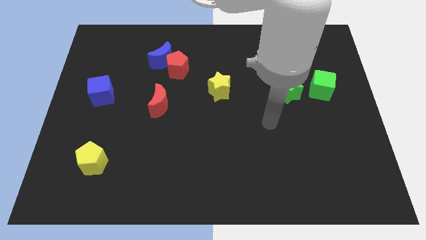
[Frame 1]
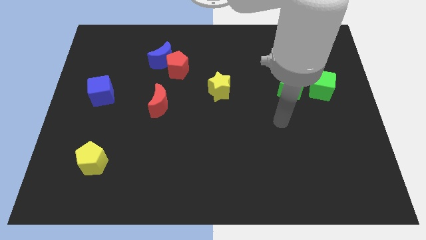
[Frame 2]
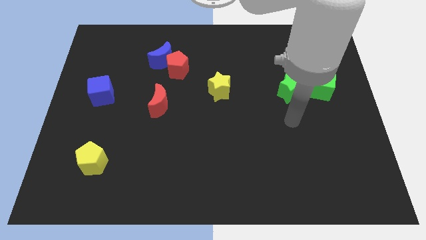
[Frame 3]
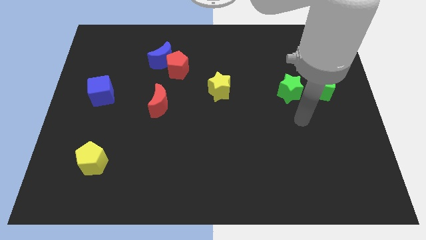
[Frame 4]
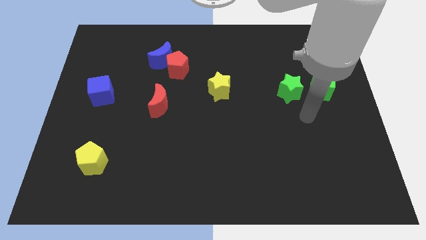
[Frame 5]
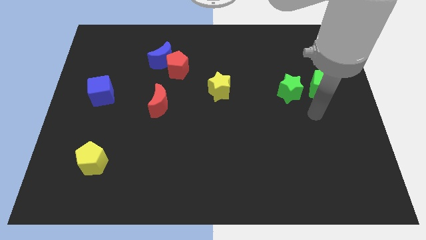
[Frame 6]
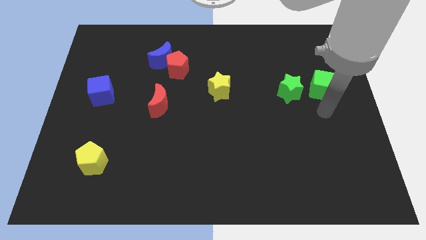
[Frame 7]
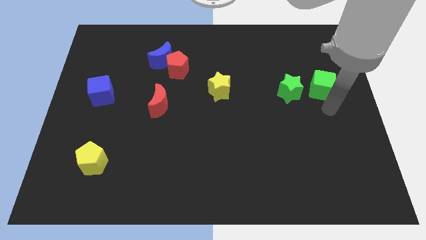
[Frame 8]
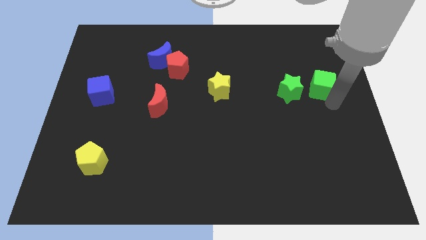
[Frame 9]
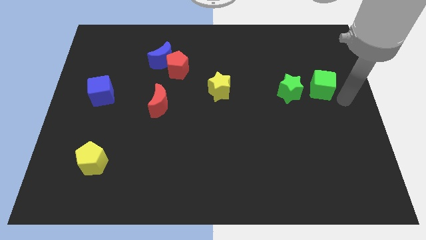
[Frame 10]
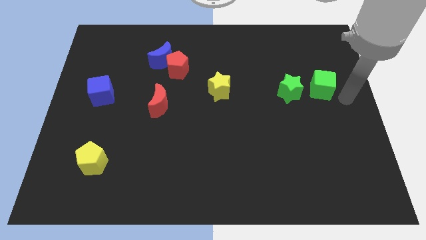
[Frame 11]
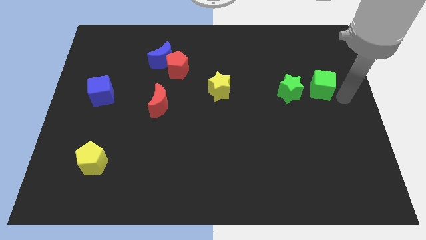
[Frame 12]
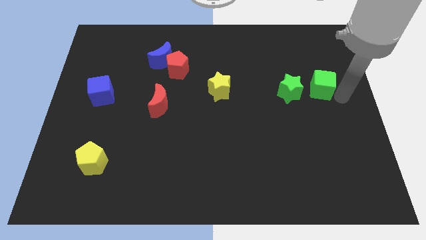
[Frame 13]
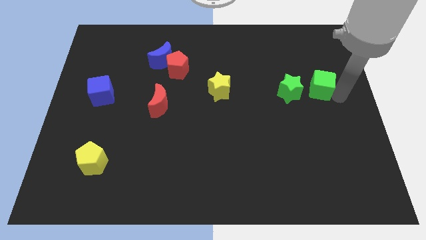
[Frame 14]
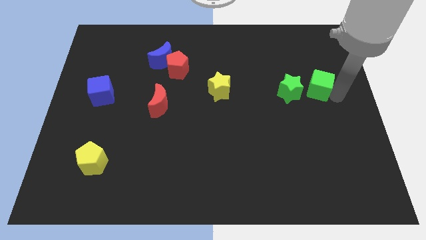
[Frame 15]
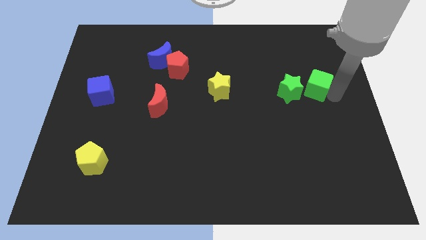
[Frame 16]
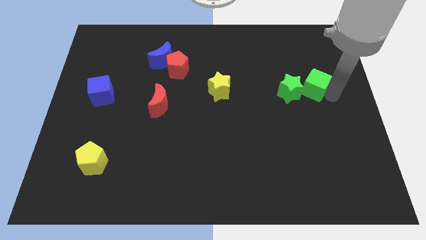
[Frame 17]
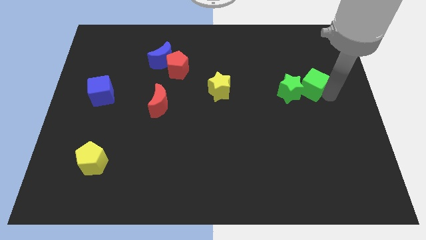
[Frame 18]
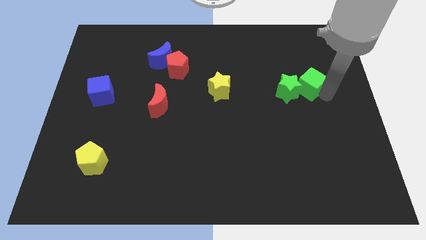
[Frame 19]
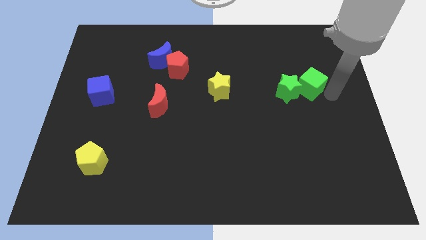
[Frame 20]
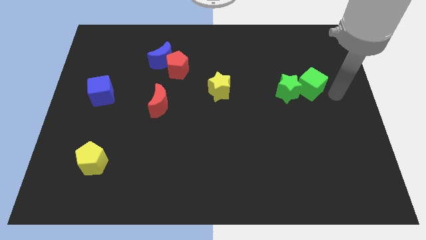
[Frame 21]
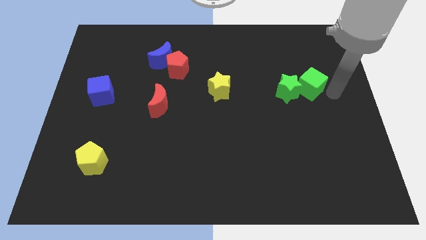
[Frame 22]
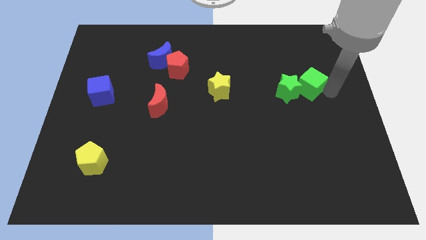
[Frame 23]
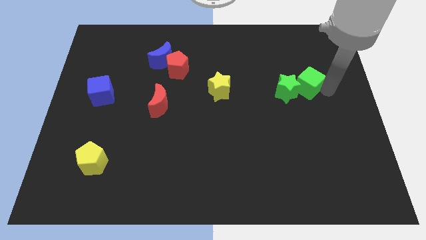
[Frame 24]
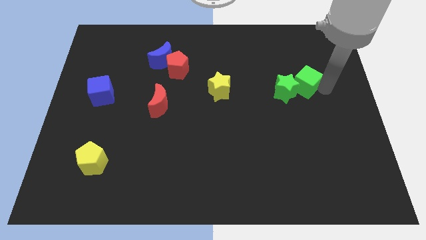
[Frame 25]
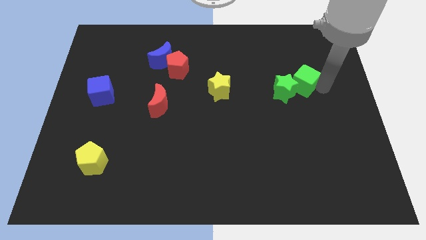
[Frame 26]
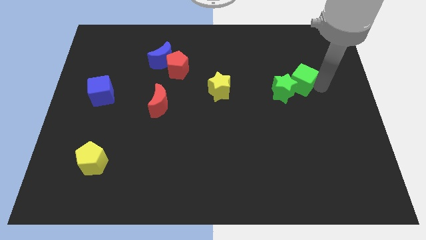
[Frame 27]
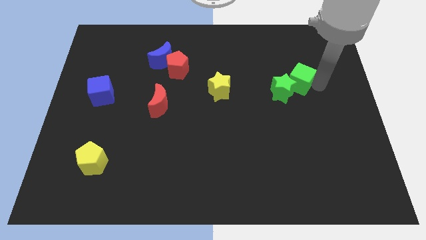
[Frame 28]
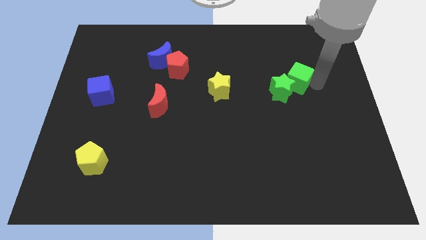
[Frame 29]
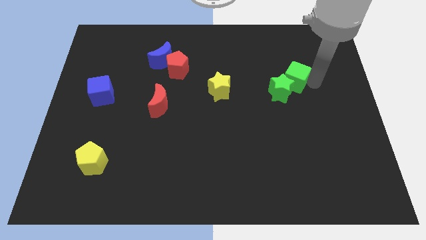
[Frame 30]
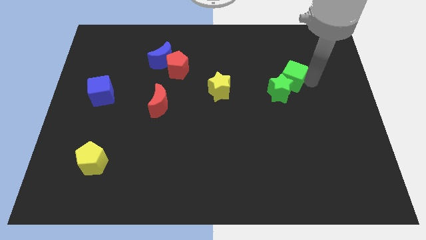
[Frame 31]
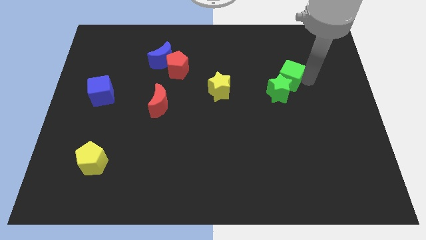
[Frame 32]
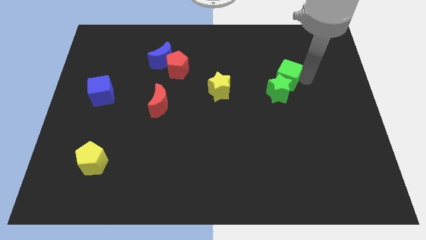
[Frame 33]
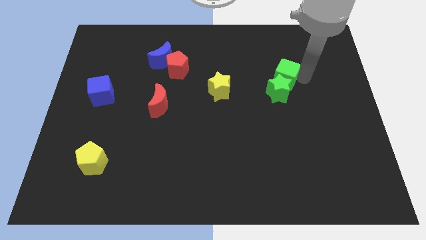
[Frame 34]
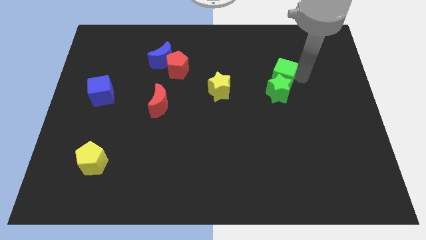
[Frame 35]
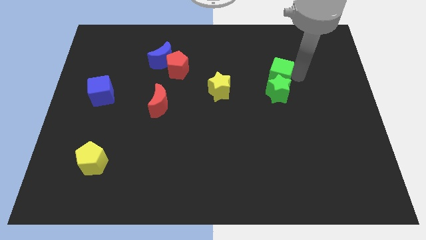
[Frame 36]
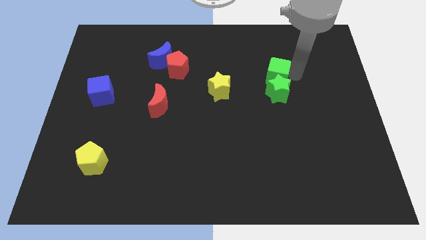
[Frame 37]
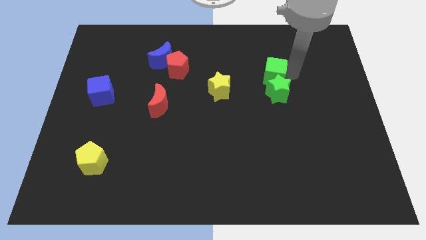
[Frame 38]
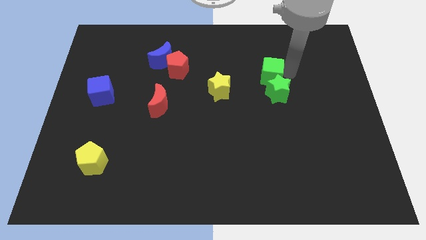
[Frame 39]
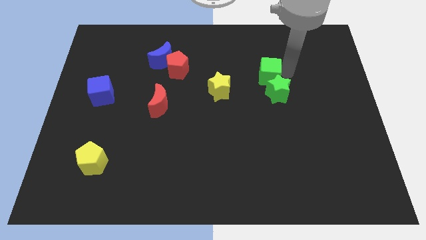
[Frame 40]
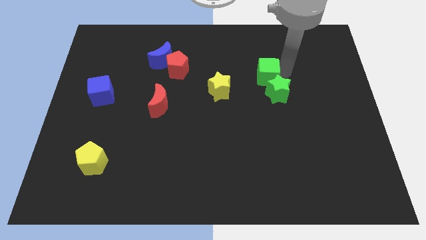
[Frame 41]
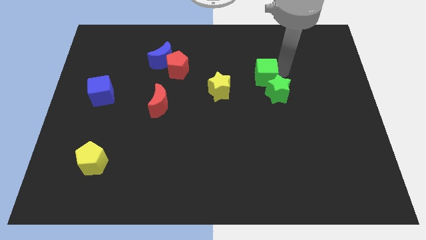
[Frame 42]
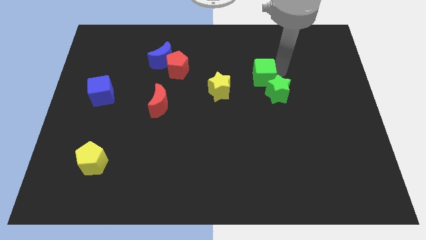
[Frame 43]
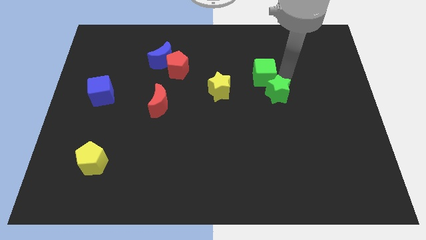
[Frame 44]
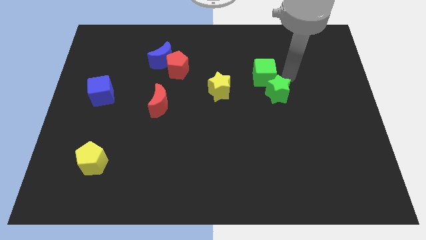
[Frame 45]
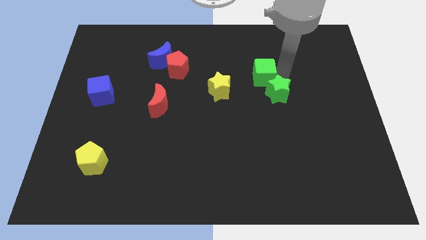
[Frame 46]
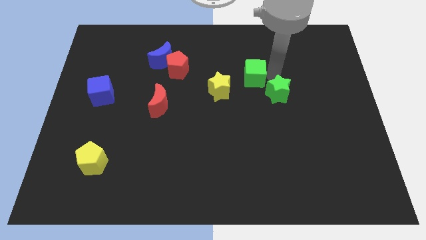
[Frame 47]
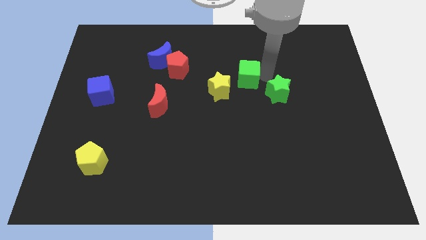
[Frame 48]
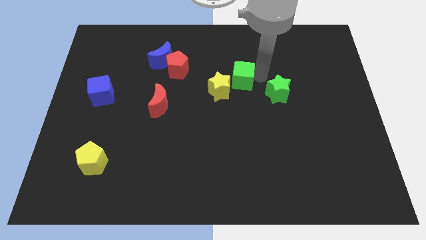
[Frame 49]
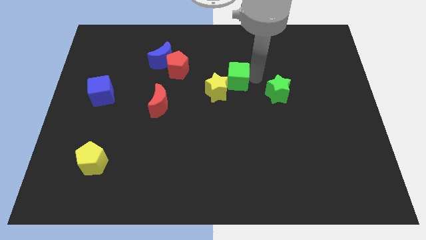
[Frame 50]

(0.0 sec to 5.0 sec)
move the green cube to the left

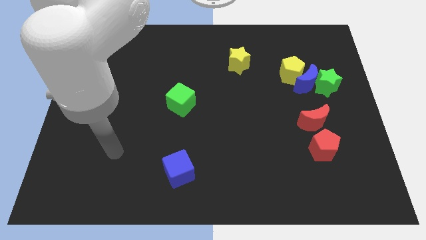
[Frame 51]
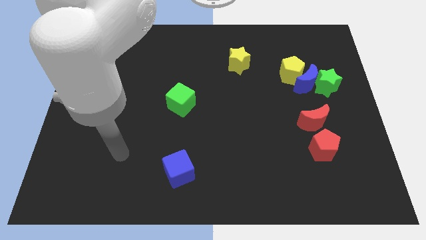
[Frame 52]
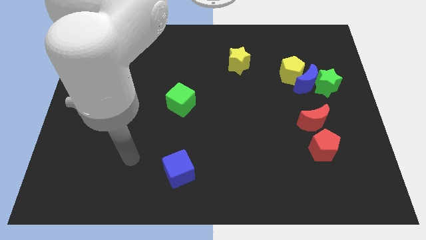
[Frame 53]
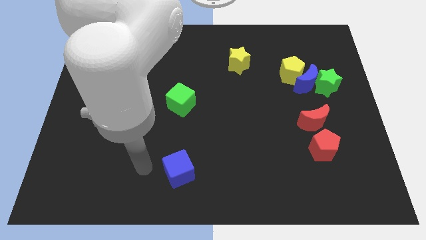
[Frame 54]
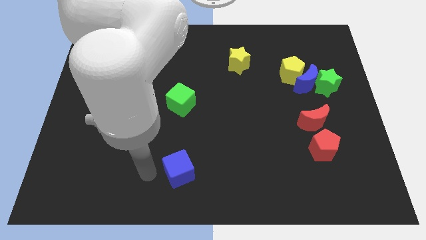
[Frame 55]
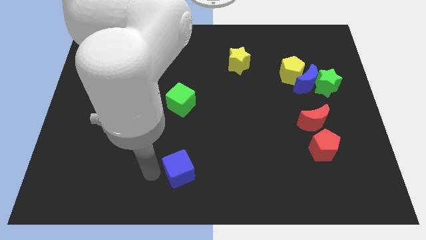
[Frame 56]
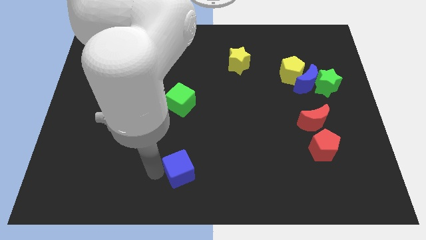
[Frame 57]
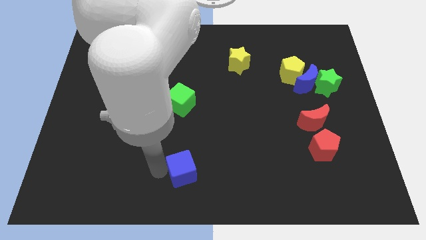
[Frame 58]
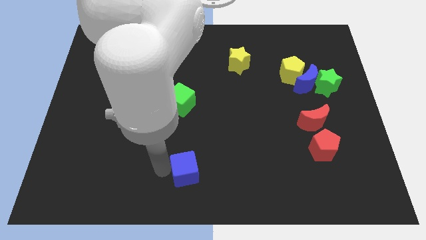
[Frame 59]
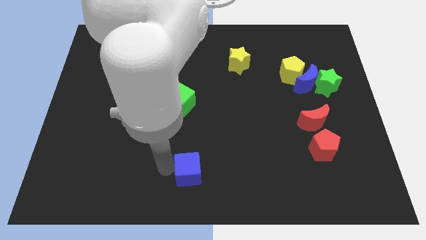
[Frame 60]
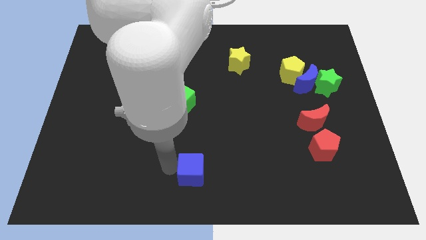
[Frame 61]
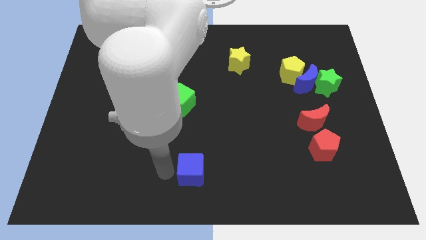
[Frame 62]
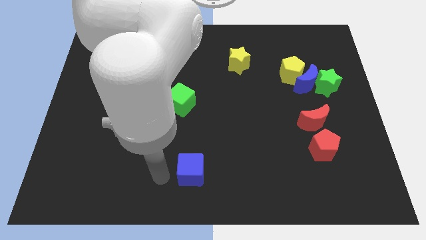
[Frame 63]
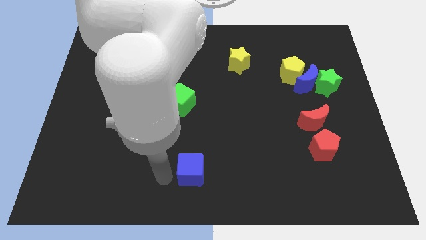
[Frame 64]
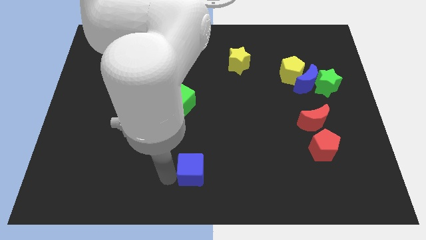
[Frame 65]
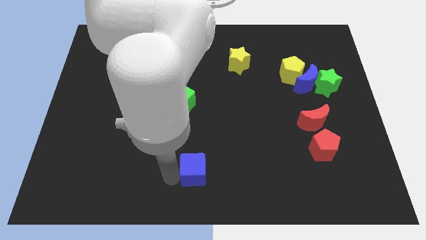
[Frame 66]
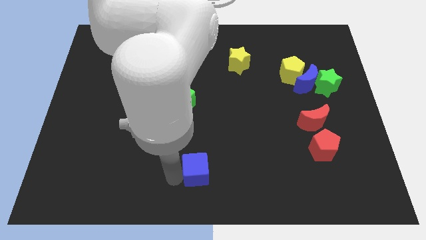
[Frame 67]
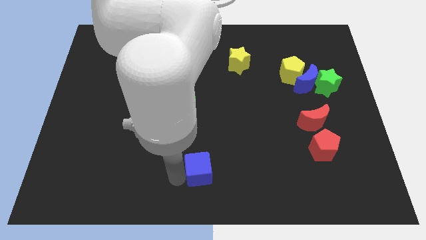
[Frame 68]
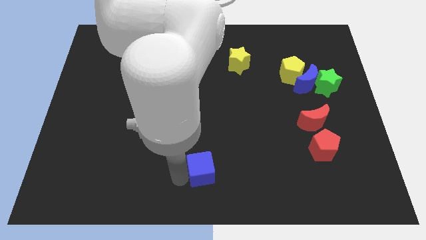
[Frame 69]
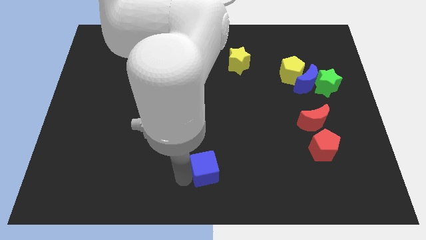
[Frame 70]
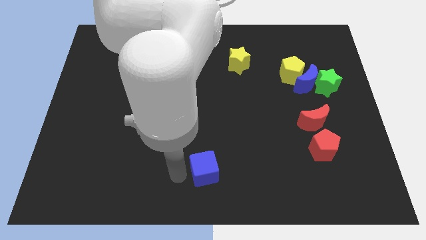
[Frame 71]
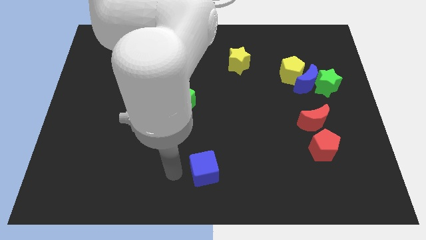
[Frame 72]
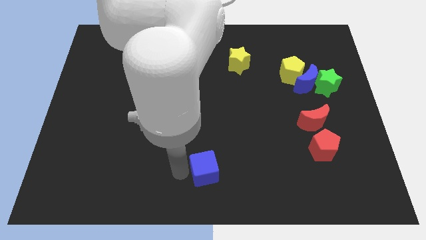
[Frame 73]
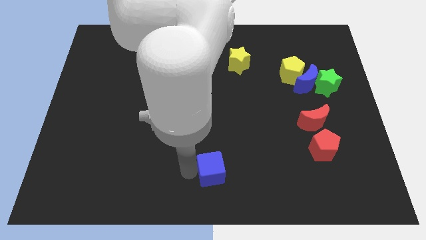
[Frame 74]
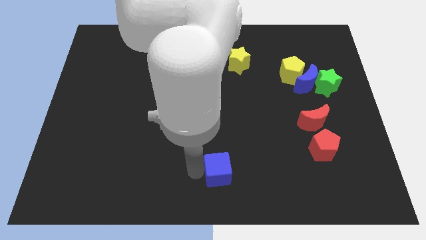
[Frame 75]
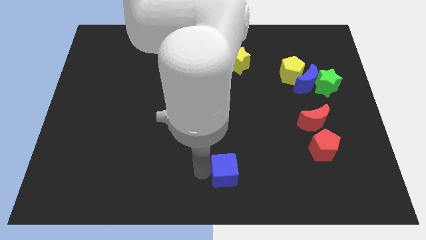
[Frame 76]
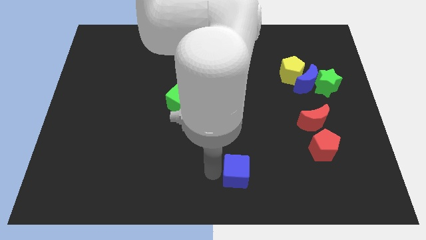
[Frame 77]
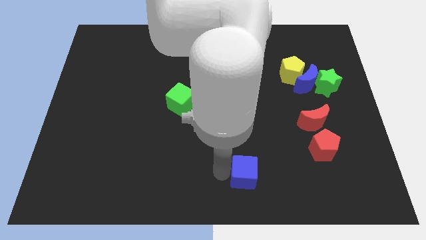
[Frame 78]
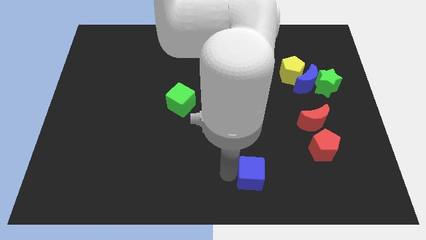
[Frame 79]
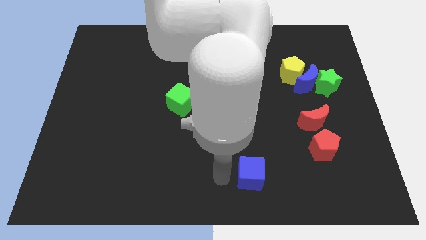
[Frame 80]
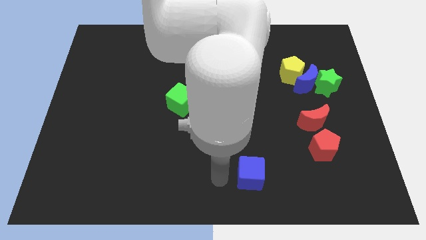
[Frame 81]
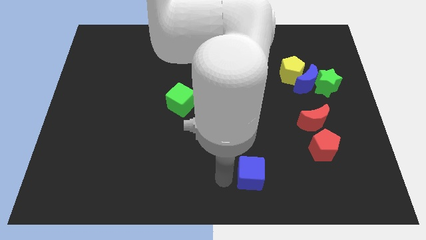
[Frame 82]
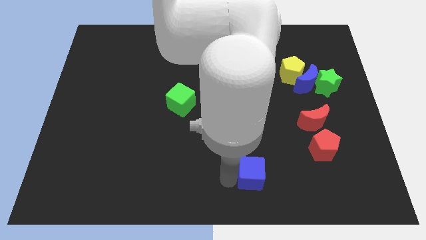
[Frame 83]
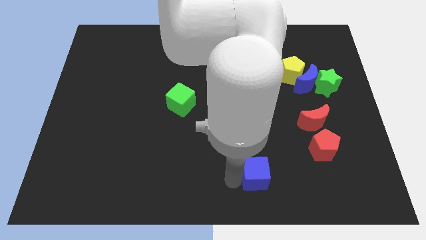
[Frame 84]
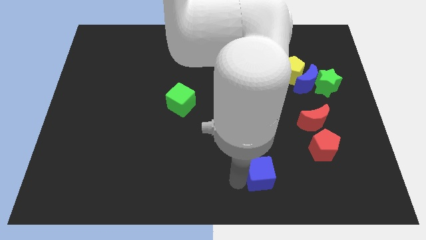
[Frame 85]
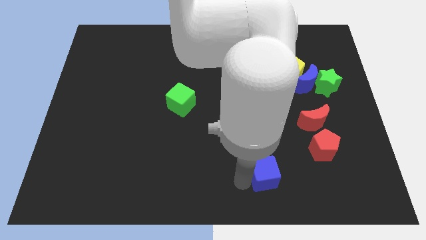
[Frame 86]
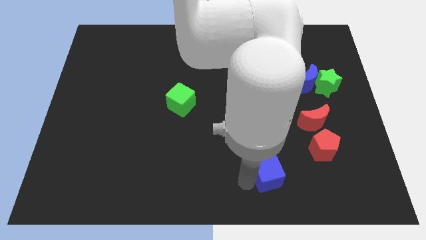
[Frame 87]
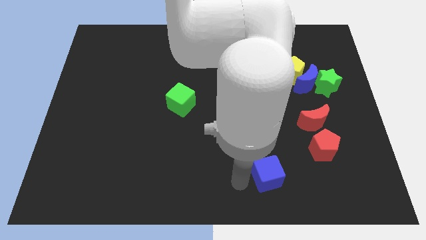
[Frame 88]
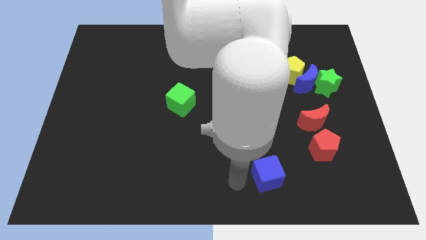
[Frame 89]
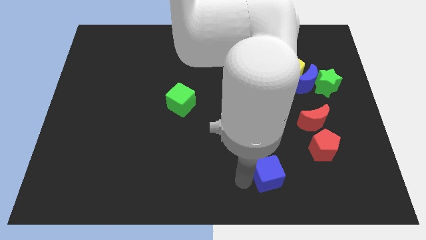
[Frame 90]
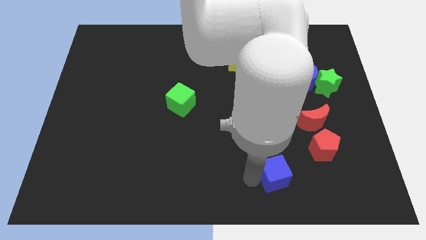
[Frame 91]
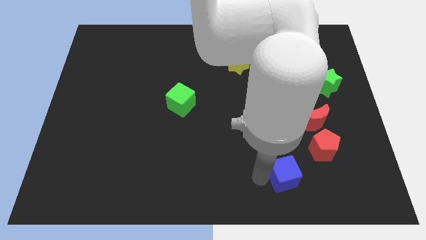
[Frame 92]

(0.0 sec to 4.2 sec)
push the blue cube right
